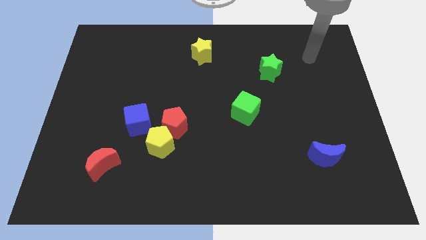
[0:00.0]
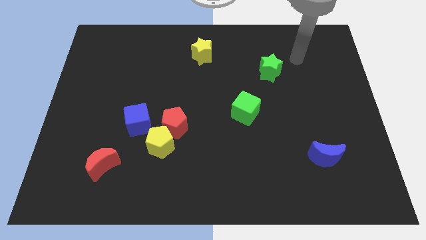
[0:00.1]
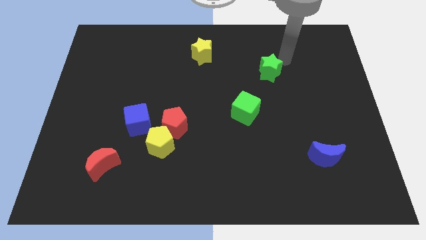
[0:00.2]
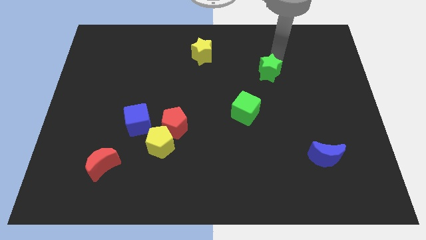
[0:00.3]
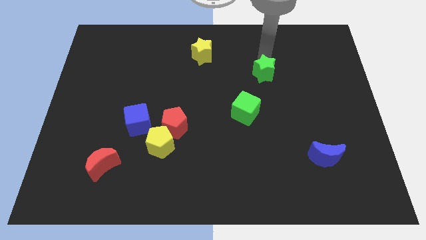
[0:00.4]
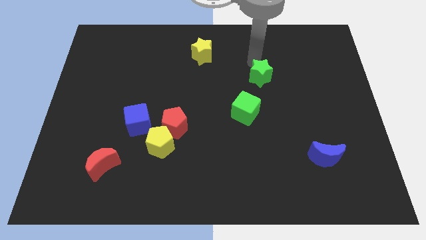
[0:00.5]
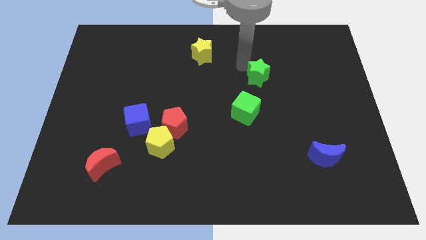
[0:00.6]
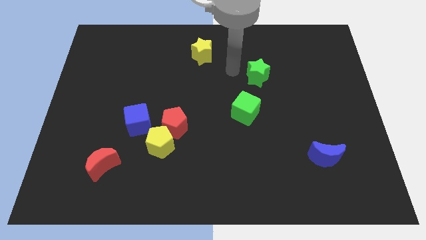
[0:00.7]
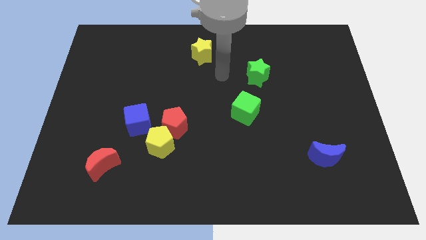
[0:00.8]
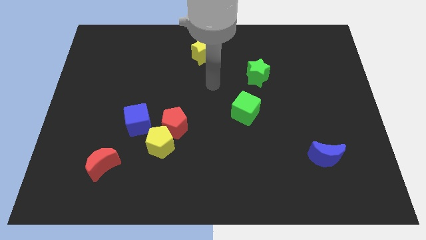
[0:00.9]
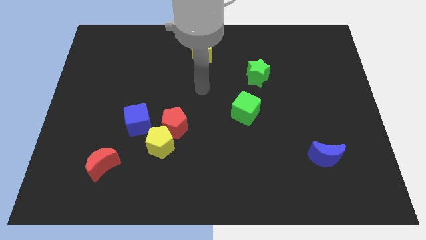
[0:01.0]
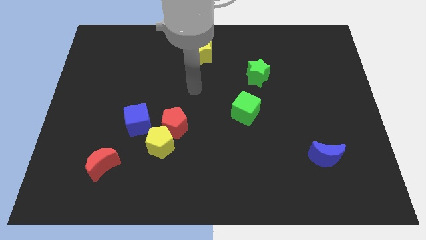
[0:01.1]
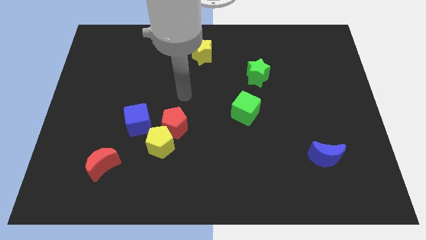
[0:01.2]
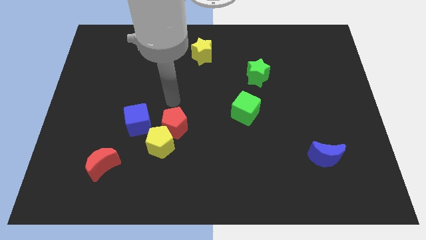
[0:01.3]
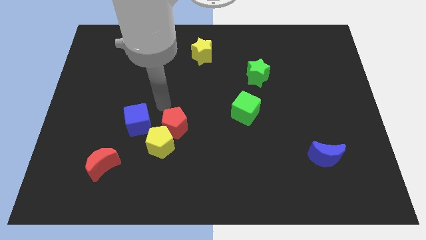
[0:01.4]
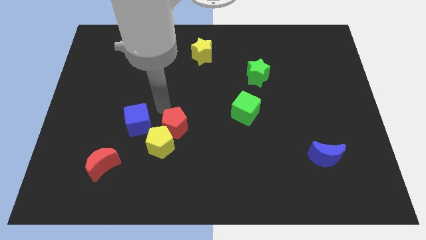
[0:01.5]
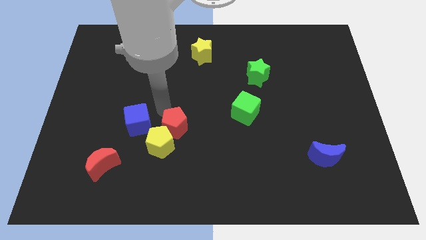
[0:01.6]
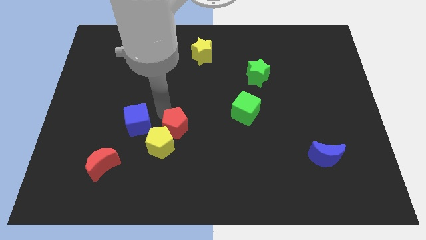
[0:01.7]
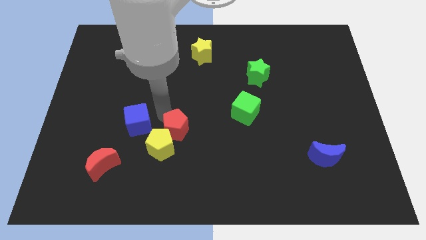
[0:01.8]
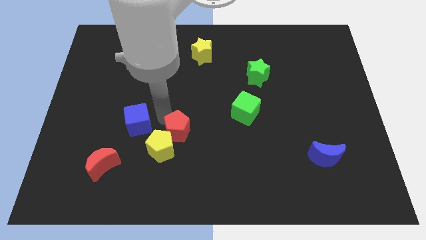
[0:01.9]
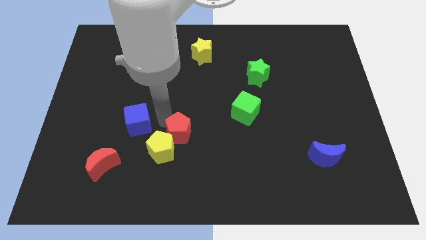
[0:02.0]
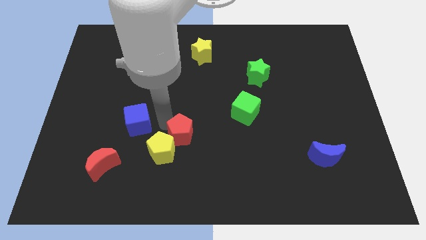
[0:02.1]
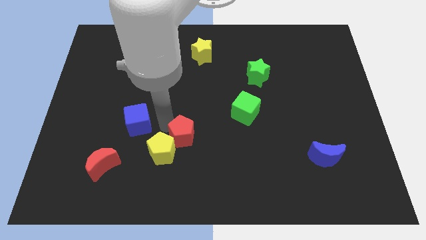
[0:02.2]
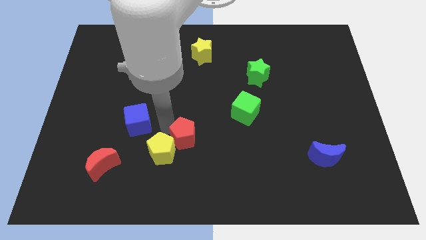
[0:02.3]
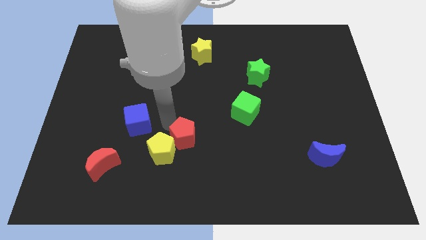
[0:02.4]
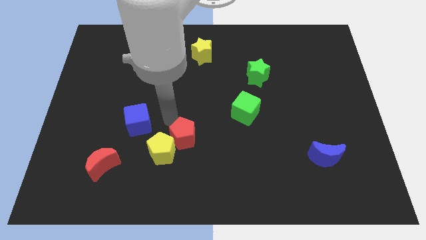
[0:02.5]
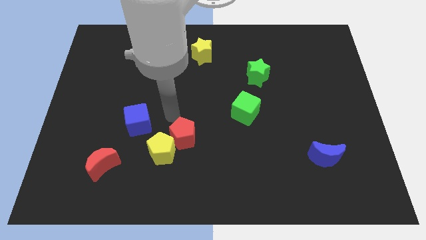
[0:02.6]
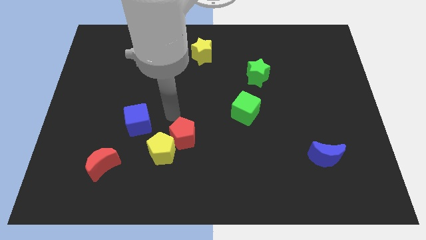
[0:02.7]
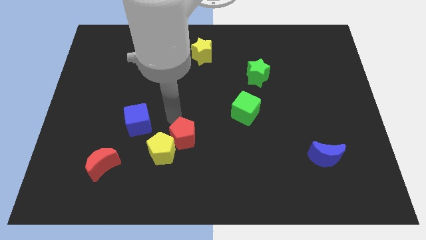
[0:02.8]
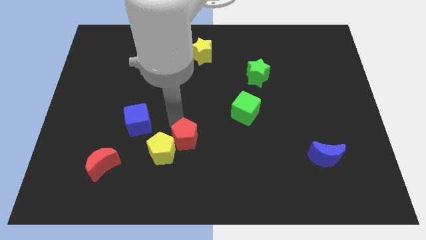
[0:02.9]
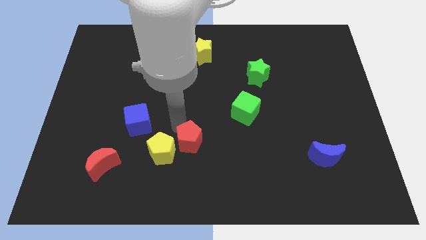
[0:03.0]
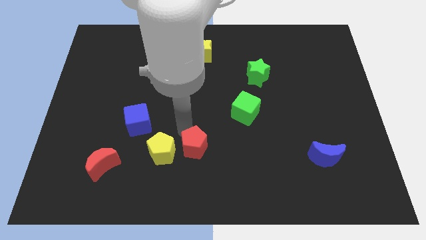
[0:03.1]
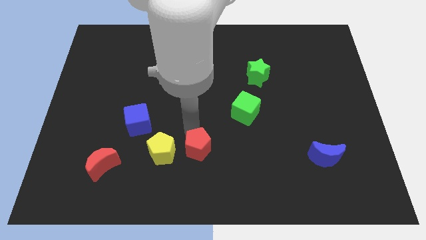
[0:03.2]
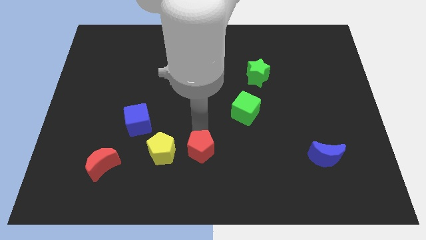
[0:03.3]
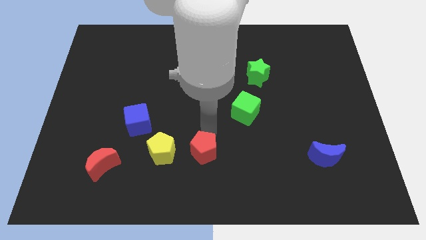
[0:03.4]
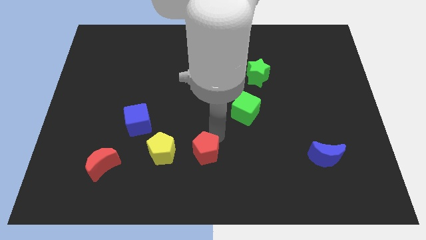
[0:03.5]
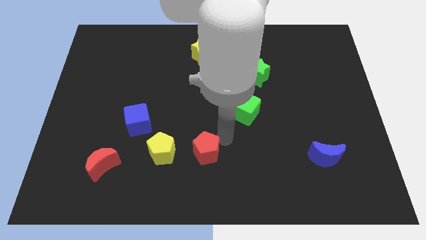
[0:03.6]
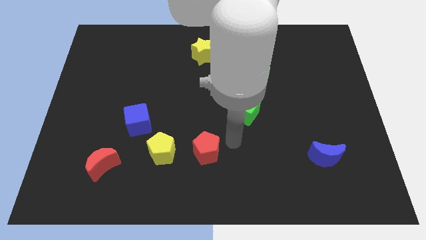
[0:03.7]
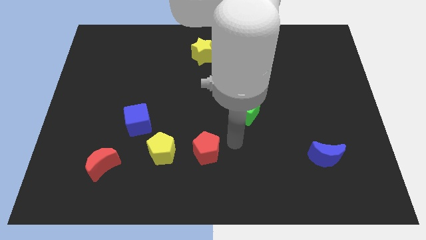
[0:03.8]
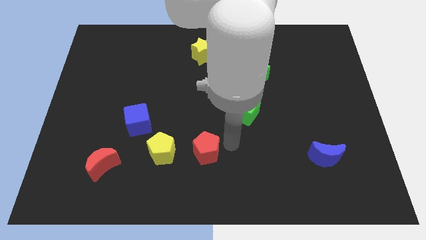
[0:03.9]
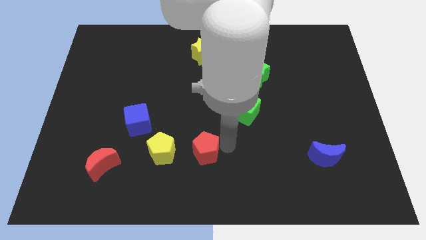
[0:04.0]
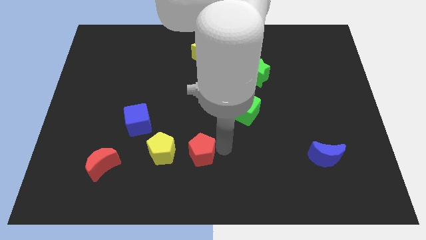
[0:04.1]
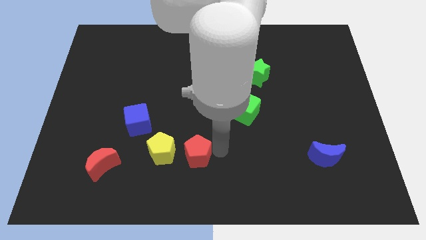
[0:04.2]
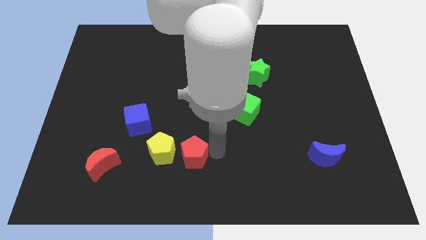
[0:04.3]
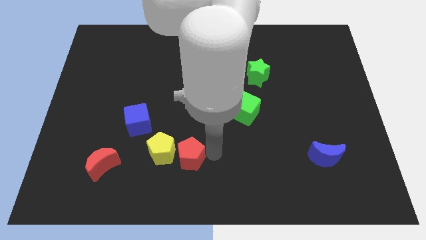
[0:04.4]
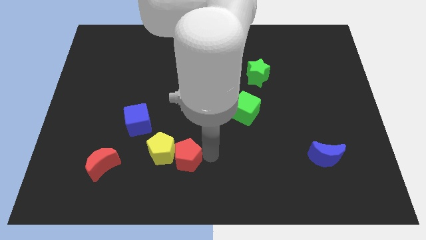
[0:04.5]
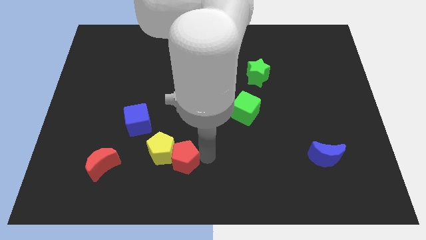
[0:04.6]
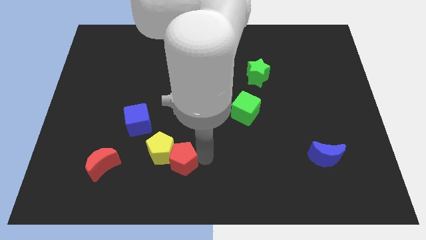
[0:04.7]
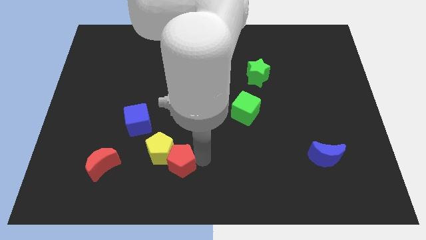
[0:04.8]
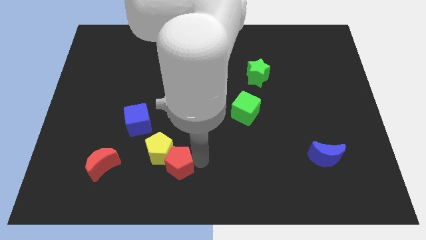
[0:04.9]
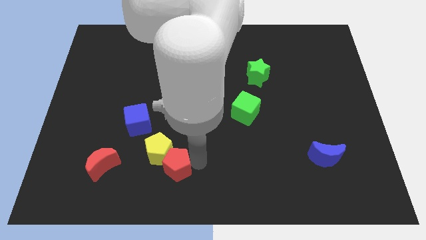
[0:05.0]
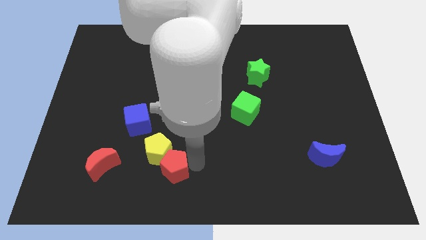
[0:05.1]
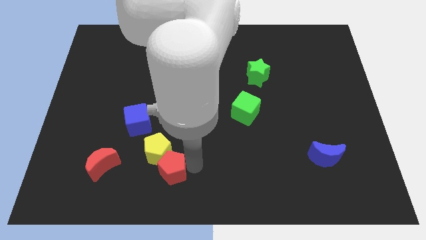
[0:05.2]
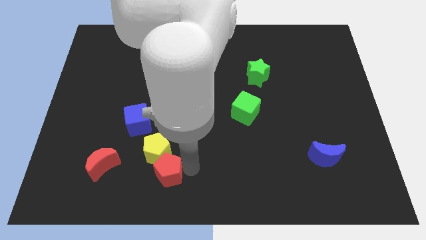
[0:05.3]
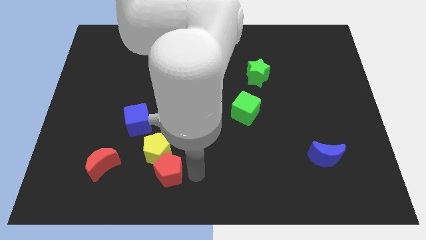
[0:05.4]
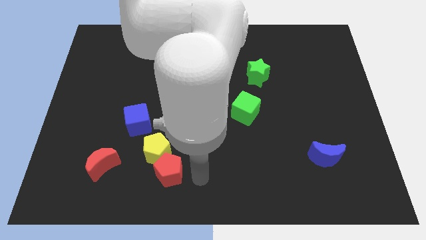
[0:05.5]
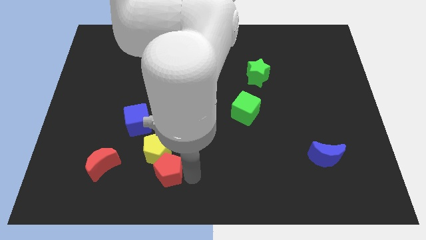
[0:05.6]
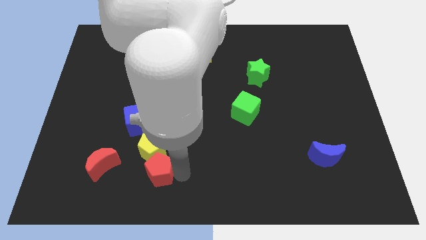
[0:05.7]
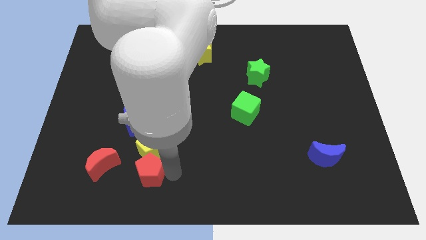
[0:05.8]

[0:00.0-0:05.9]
move the red pentagon to the bottom side of the blue cube

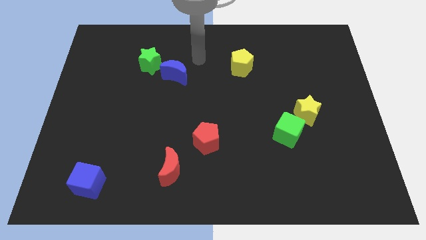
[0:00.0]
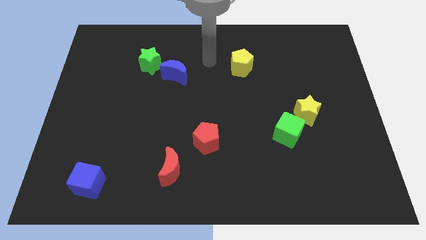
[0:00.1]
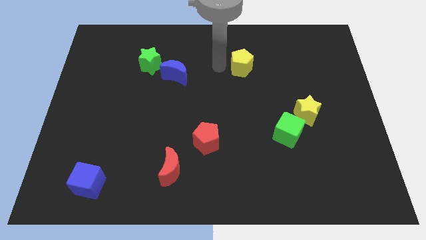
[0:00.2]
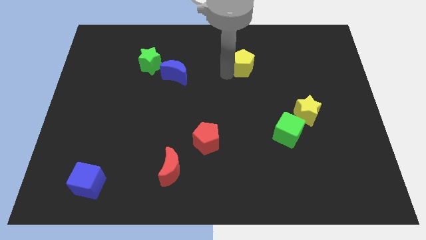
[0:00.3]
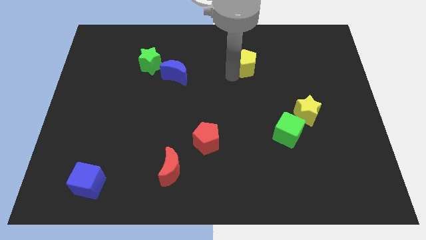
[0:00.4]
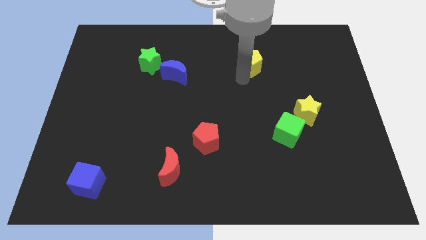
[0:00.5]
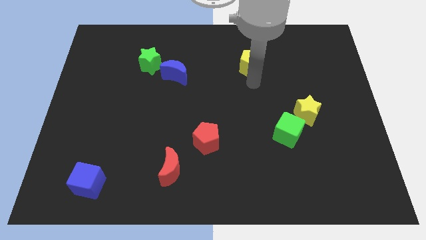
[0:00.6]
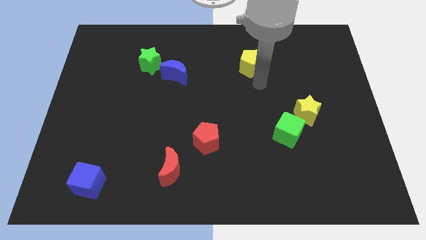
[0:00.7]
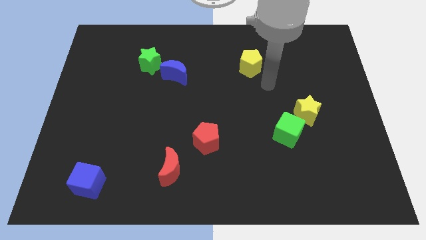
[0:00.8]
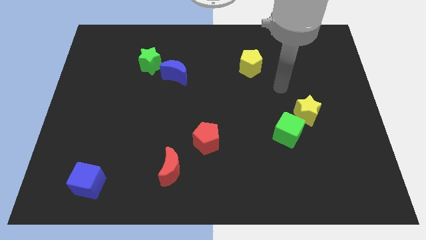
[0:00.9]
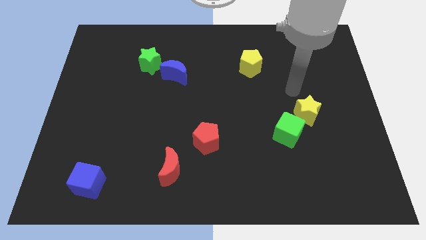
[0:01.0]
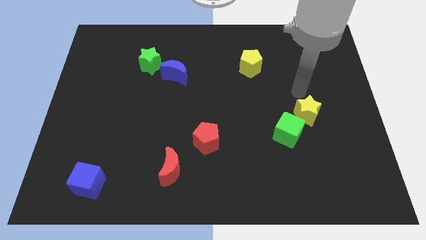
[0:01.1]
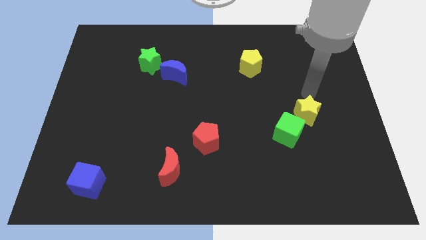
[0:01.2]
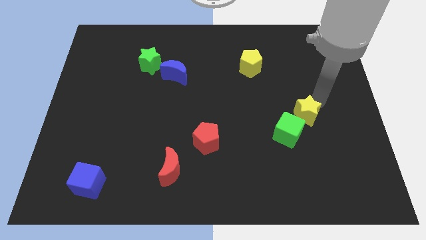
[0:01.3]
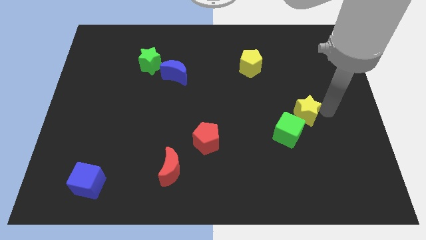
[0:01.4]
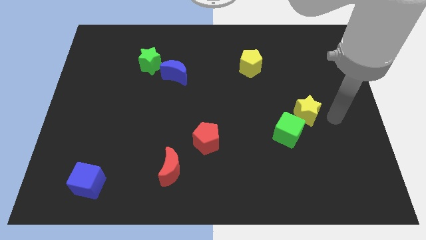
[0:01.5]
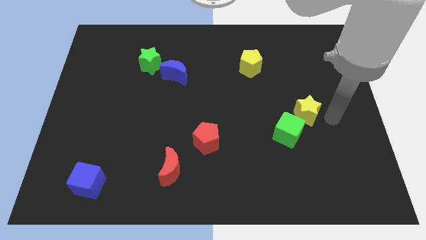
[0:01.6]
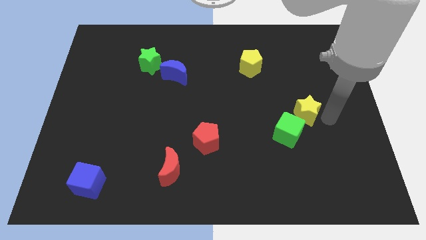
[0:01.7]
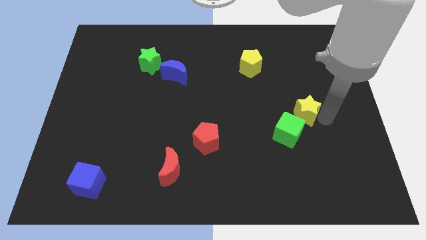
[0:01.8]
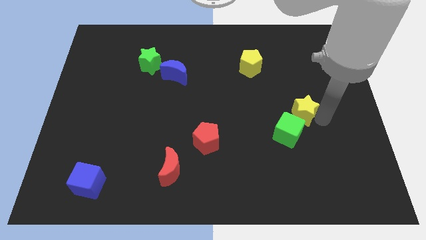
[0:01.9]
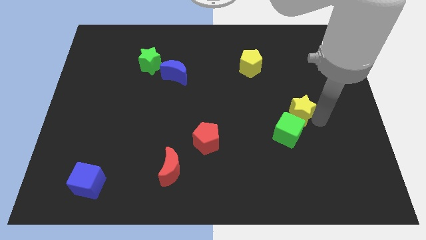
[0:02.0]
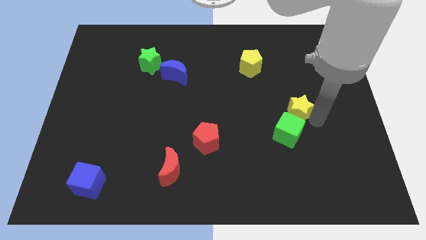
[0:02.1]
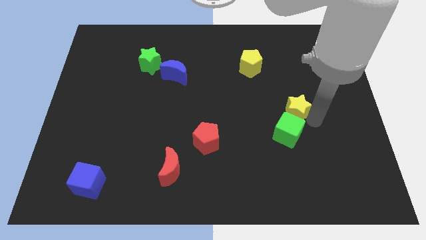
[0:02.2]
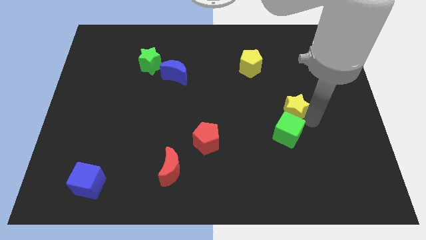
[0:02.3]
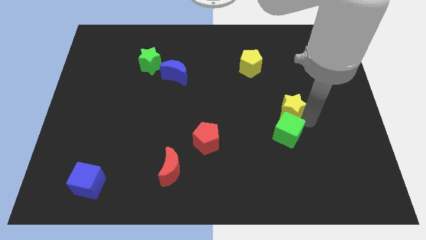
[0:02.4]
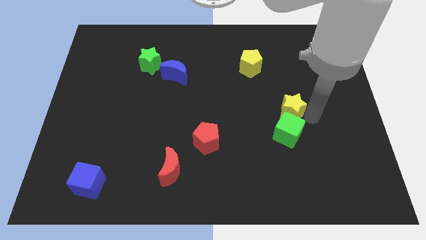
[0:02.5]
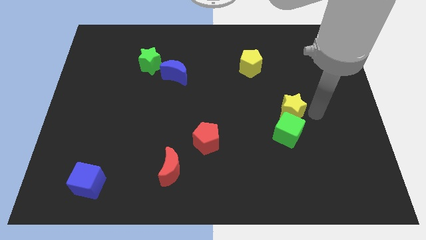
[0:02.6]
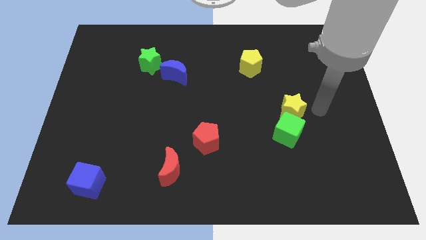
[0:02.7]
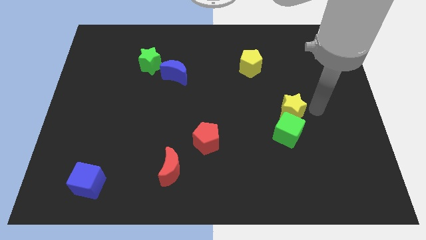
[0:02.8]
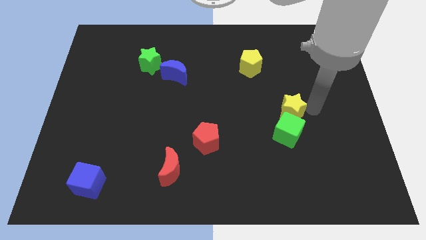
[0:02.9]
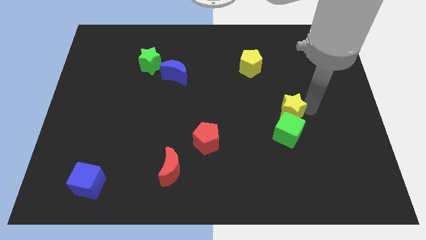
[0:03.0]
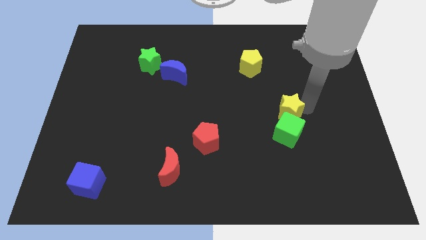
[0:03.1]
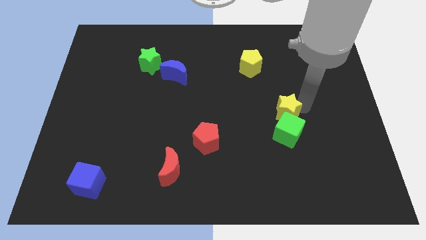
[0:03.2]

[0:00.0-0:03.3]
move the yellow star diagonally up and to the left of the green cube
